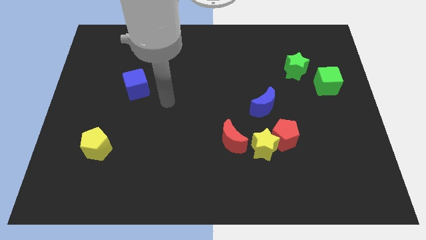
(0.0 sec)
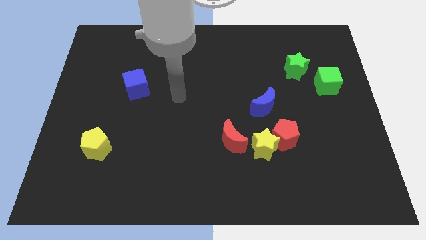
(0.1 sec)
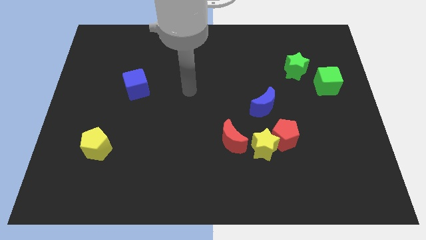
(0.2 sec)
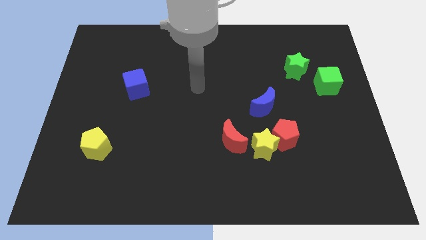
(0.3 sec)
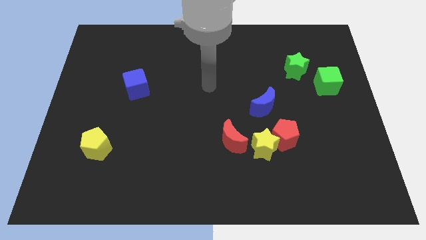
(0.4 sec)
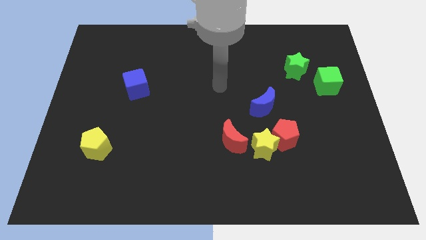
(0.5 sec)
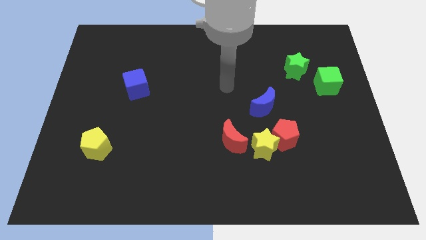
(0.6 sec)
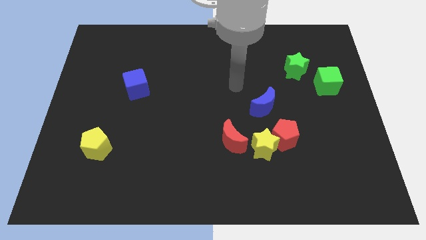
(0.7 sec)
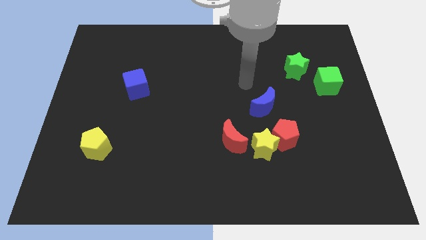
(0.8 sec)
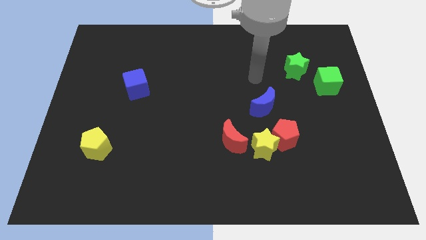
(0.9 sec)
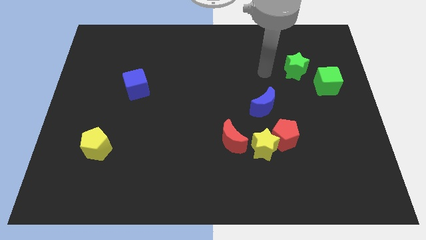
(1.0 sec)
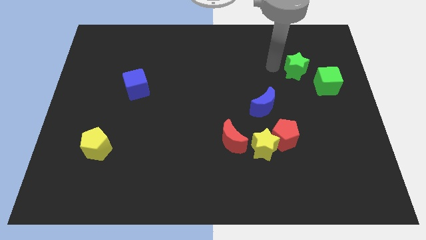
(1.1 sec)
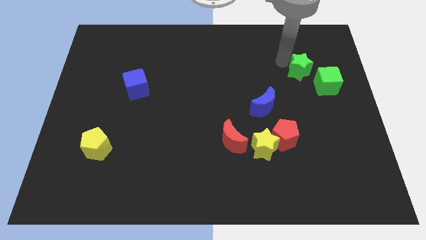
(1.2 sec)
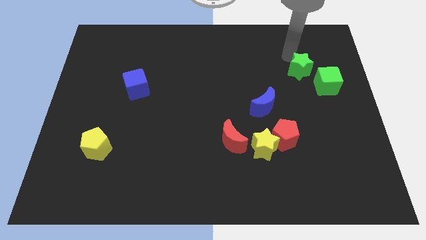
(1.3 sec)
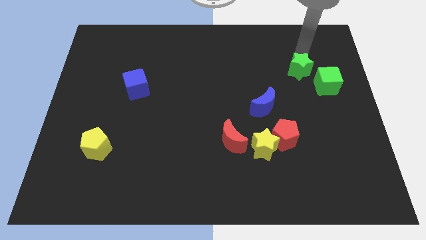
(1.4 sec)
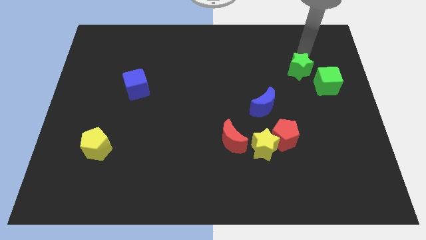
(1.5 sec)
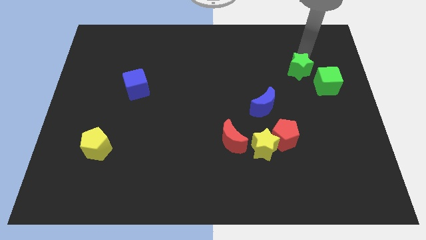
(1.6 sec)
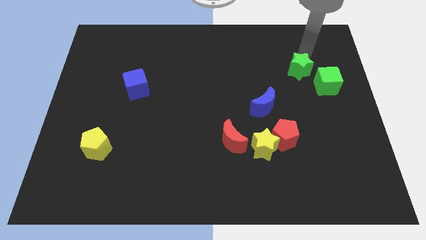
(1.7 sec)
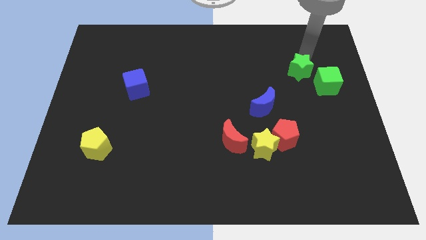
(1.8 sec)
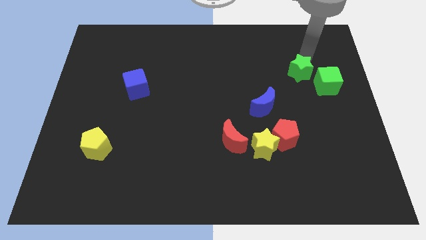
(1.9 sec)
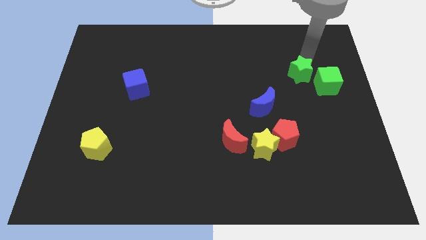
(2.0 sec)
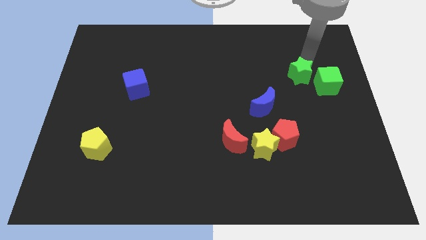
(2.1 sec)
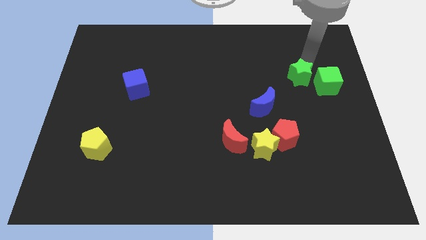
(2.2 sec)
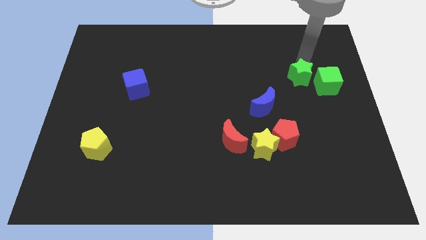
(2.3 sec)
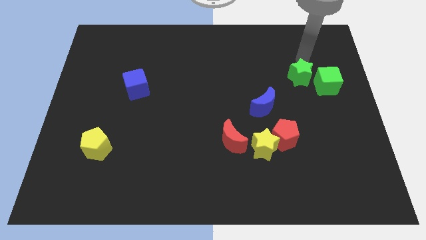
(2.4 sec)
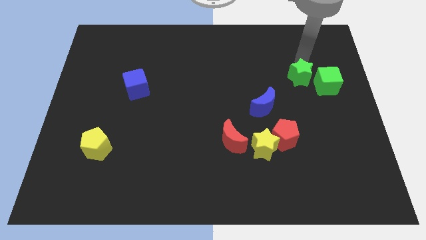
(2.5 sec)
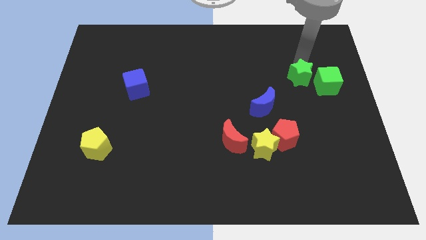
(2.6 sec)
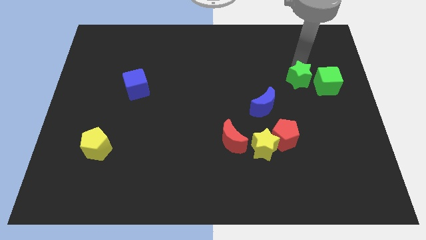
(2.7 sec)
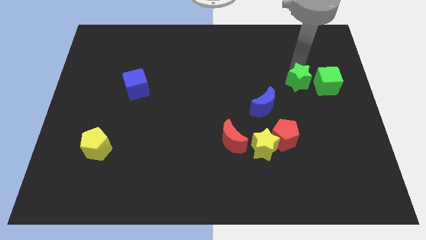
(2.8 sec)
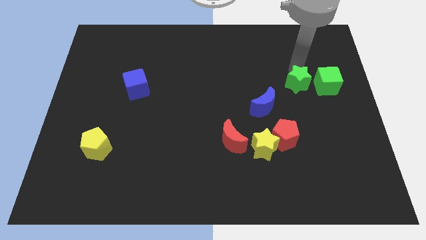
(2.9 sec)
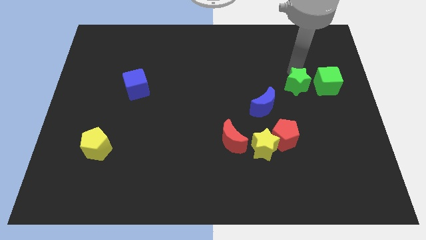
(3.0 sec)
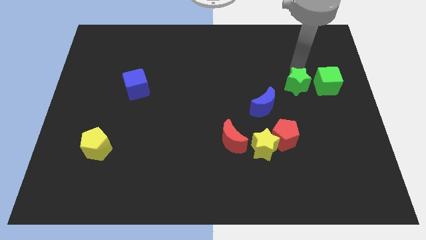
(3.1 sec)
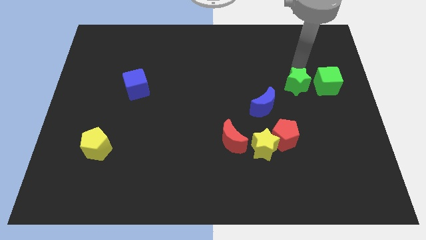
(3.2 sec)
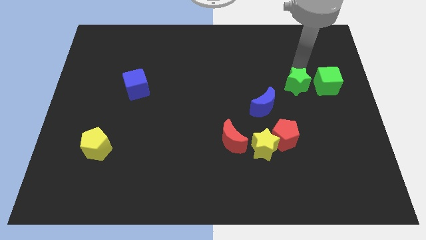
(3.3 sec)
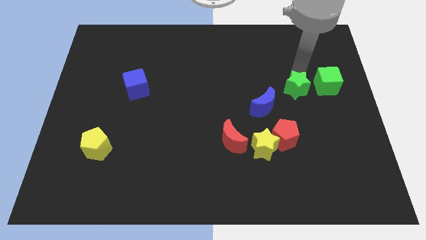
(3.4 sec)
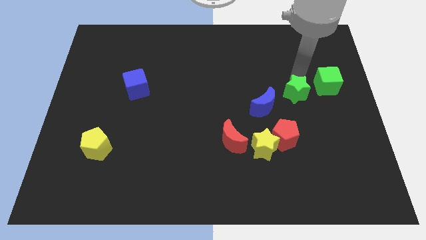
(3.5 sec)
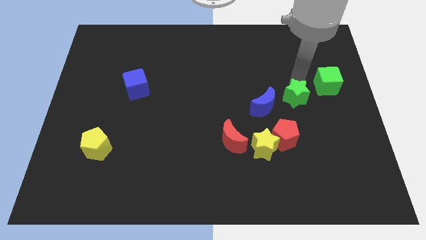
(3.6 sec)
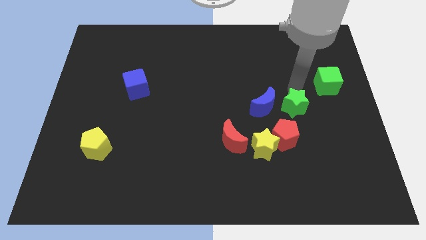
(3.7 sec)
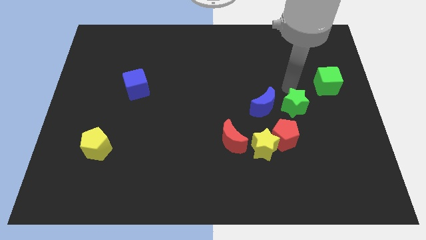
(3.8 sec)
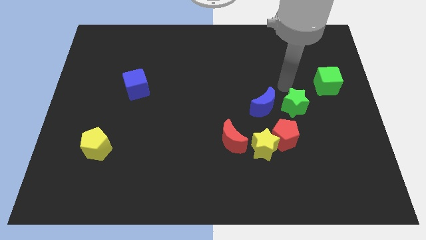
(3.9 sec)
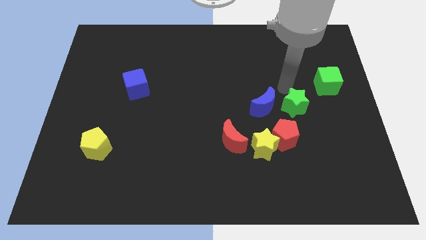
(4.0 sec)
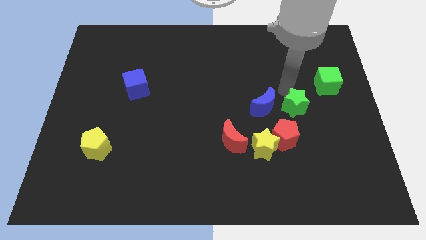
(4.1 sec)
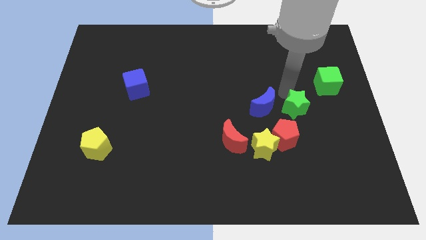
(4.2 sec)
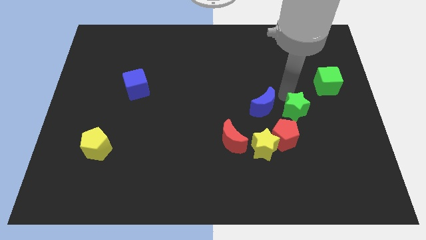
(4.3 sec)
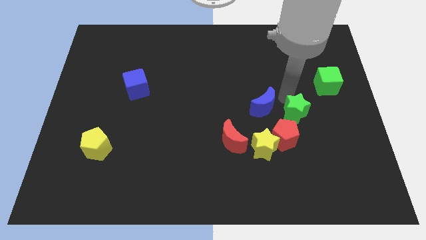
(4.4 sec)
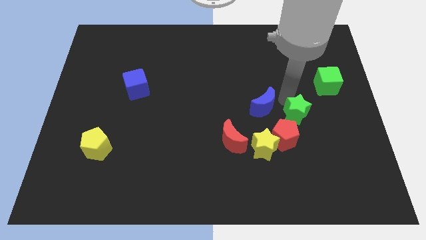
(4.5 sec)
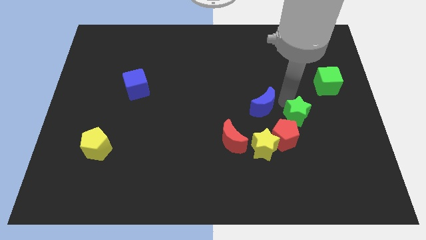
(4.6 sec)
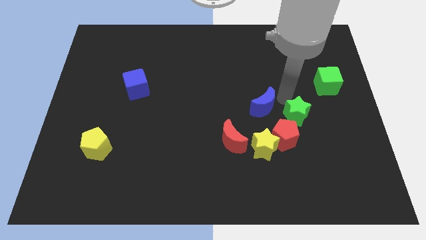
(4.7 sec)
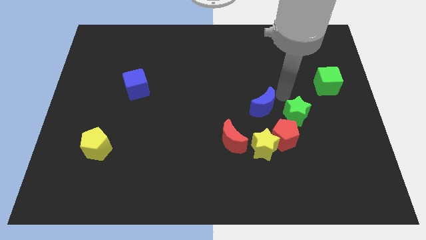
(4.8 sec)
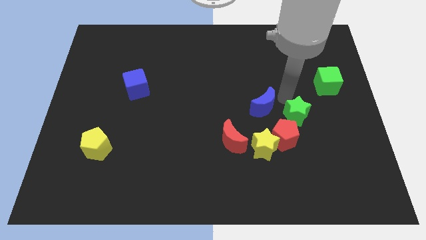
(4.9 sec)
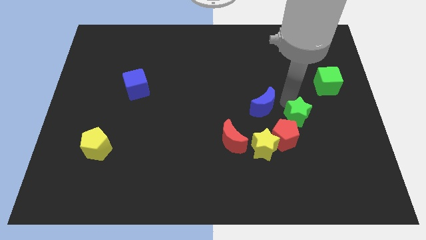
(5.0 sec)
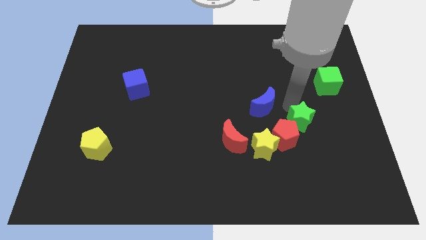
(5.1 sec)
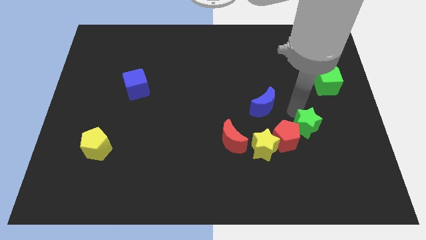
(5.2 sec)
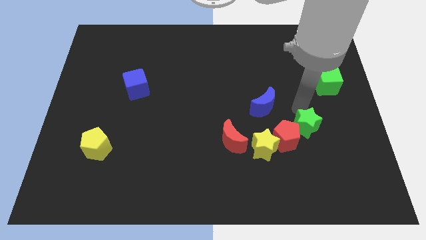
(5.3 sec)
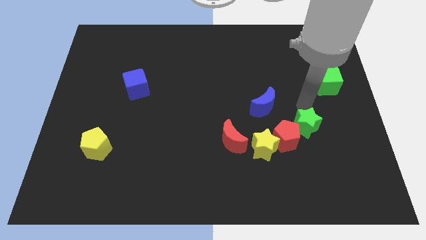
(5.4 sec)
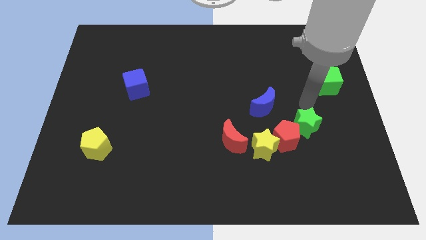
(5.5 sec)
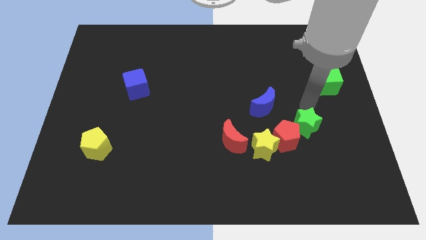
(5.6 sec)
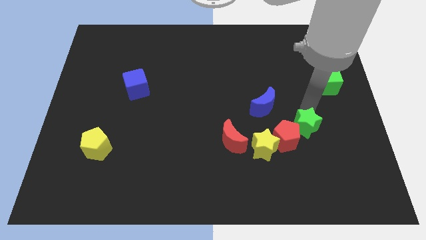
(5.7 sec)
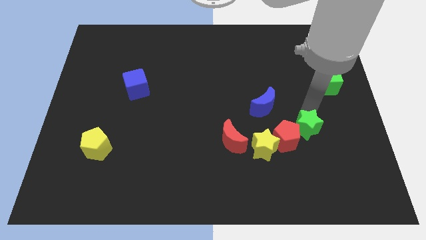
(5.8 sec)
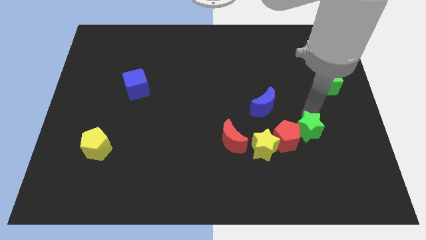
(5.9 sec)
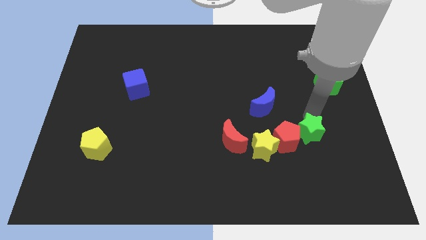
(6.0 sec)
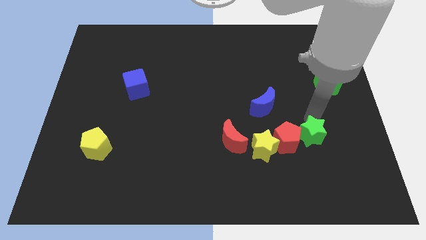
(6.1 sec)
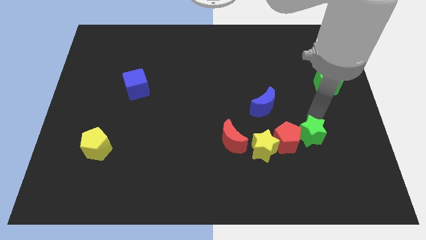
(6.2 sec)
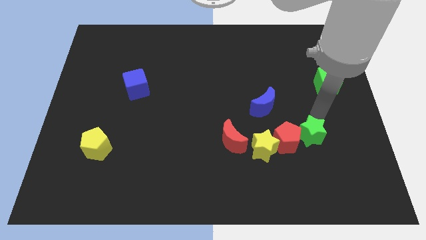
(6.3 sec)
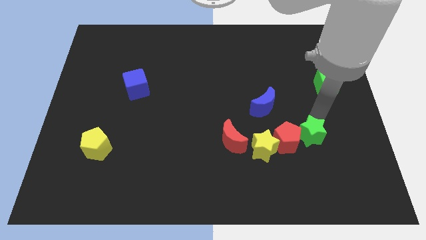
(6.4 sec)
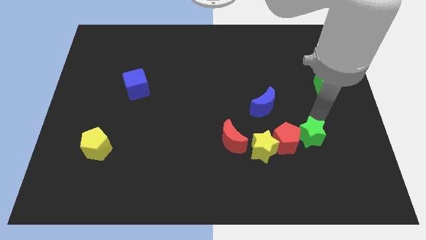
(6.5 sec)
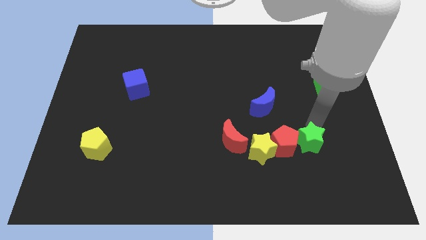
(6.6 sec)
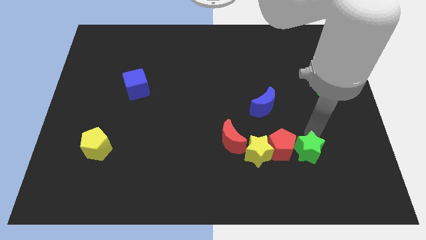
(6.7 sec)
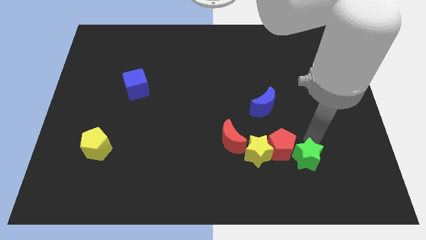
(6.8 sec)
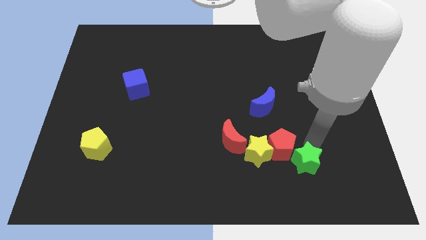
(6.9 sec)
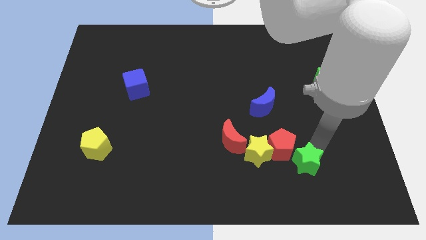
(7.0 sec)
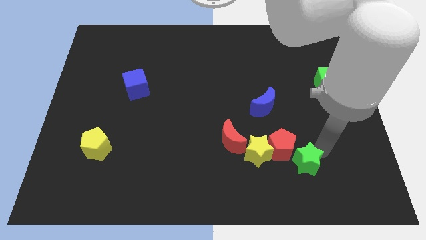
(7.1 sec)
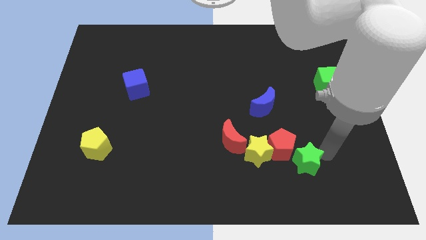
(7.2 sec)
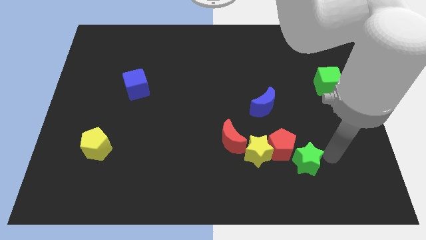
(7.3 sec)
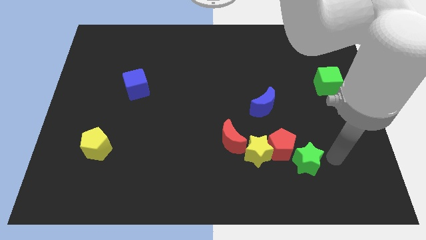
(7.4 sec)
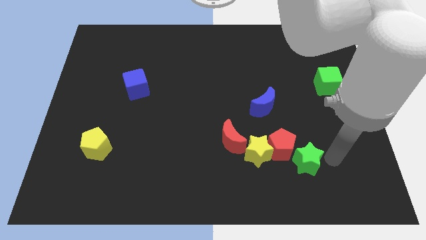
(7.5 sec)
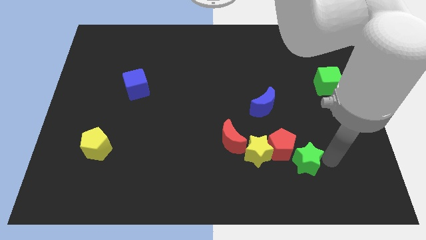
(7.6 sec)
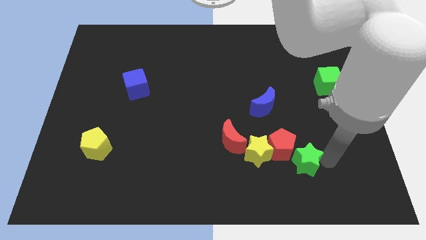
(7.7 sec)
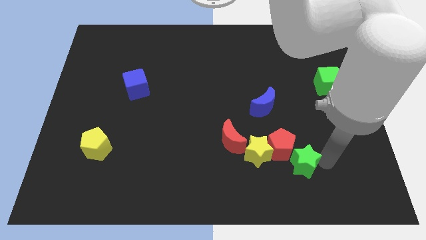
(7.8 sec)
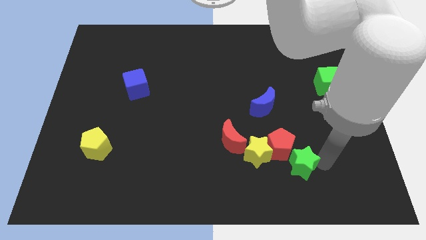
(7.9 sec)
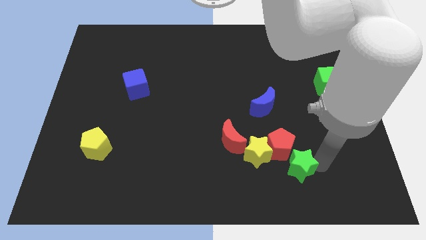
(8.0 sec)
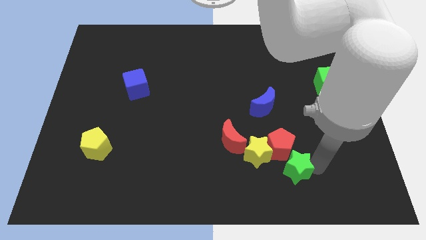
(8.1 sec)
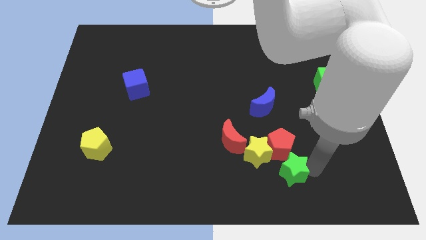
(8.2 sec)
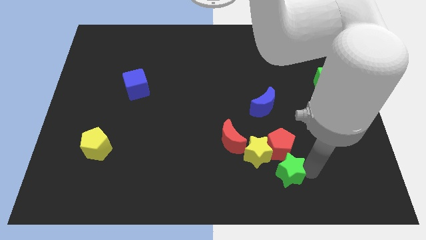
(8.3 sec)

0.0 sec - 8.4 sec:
push the green star to the bottom left side of the red pentagon
